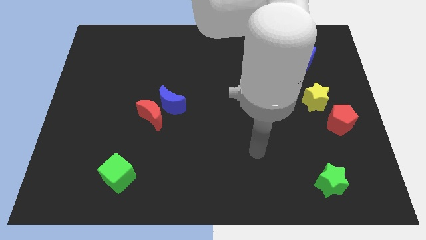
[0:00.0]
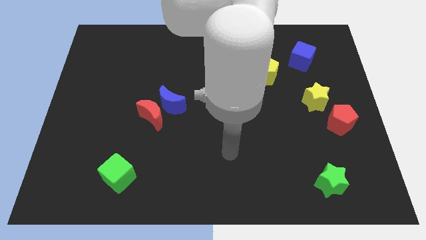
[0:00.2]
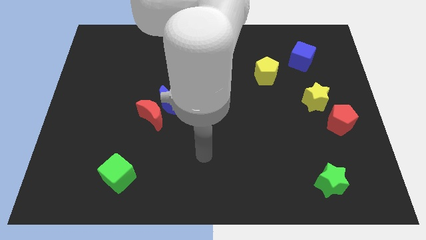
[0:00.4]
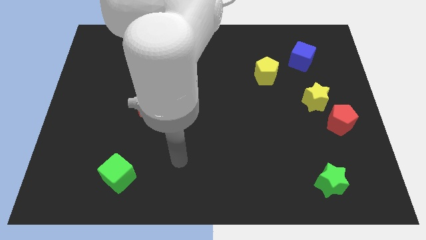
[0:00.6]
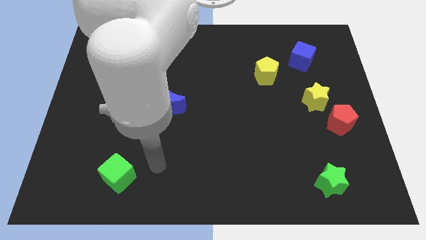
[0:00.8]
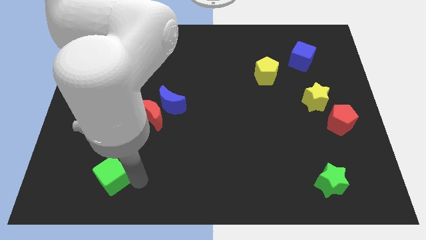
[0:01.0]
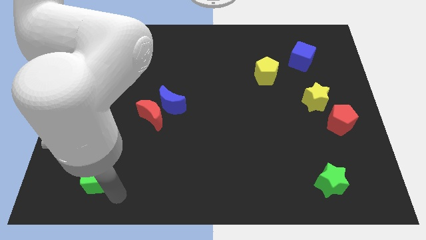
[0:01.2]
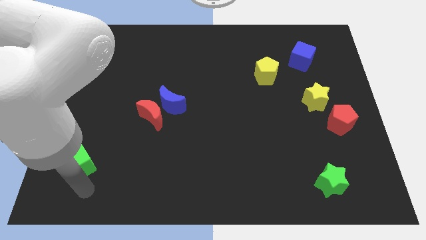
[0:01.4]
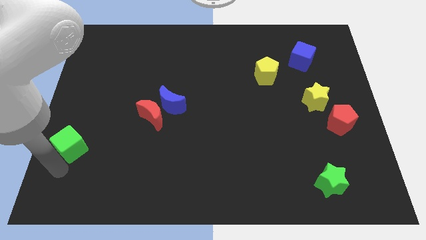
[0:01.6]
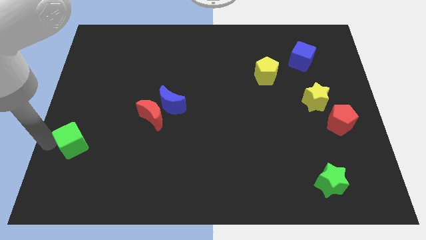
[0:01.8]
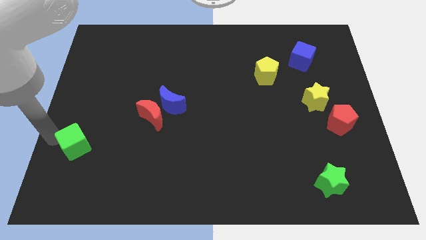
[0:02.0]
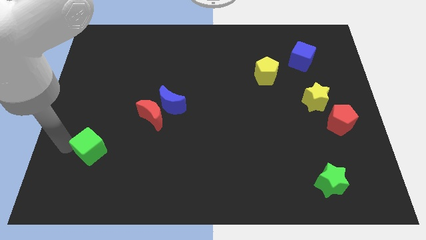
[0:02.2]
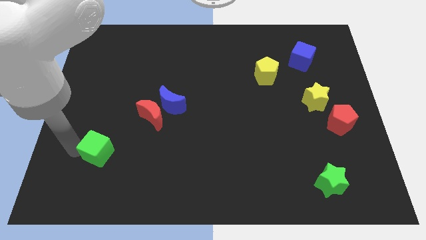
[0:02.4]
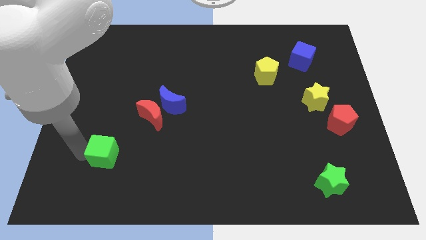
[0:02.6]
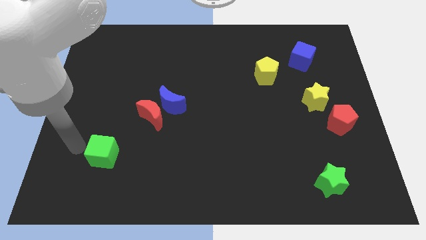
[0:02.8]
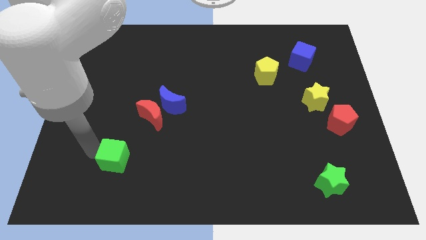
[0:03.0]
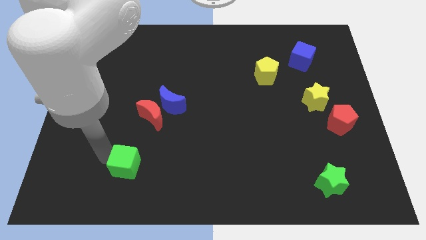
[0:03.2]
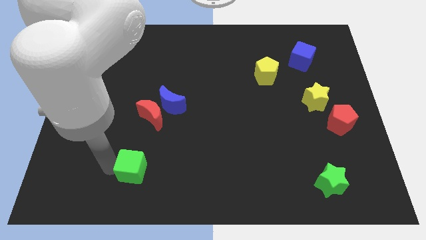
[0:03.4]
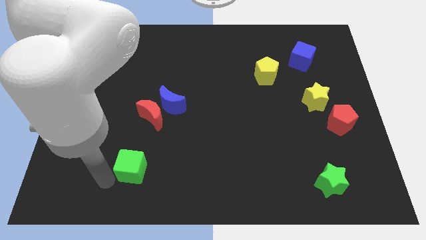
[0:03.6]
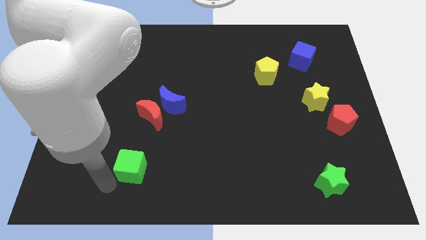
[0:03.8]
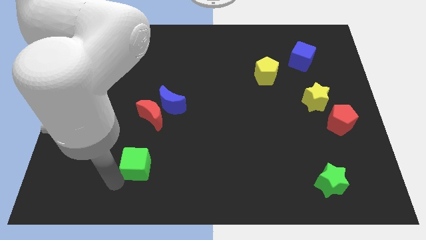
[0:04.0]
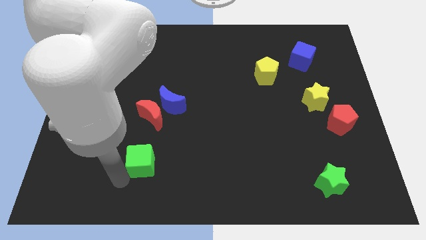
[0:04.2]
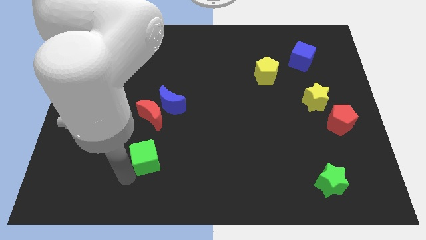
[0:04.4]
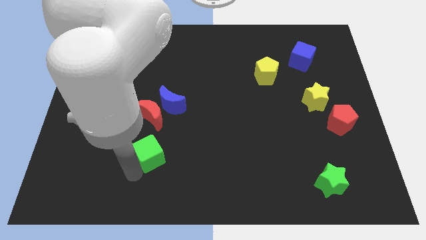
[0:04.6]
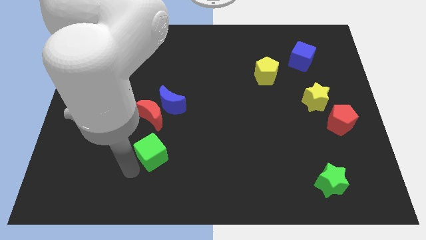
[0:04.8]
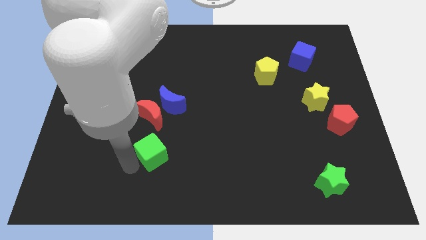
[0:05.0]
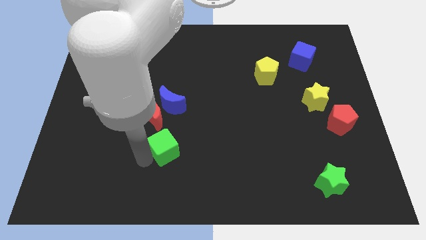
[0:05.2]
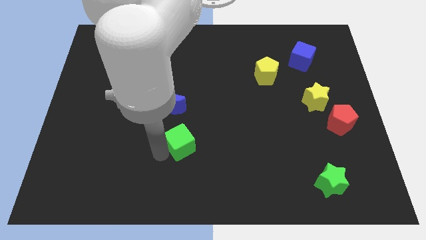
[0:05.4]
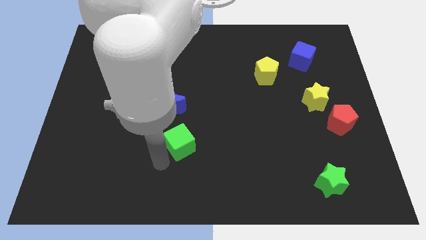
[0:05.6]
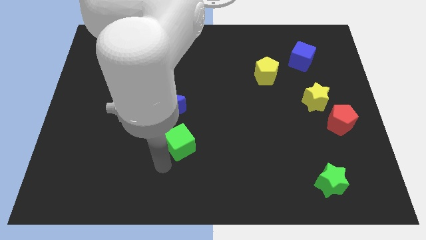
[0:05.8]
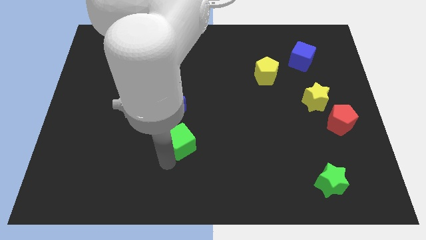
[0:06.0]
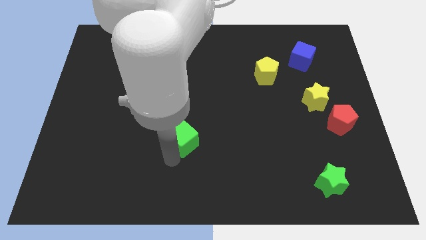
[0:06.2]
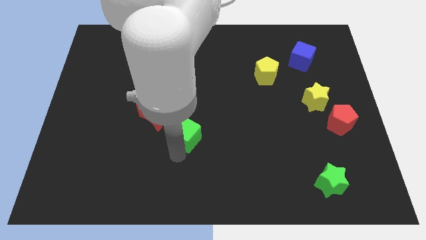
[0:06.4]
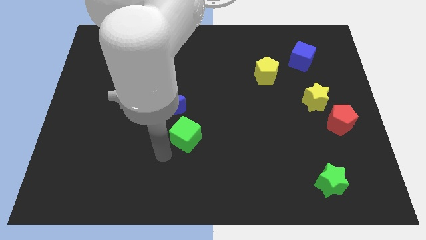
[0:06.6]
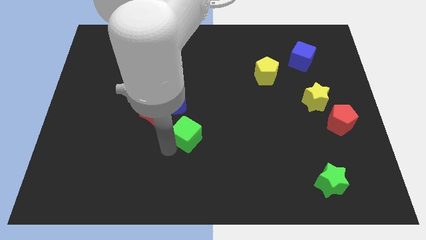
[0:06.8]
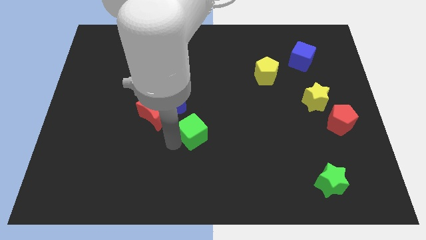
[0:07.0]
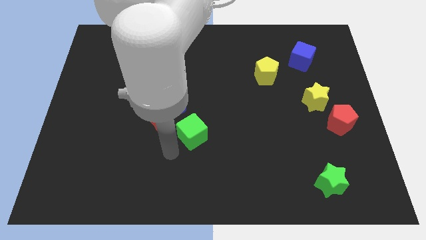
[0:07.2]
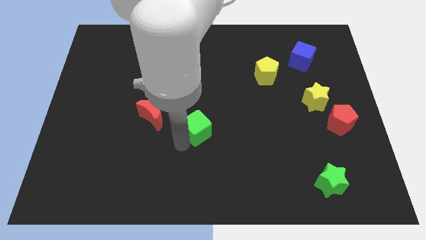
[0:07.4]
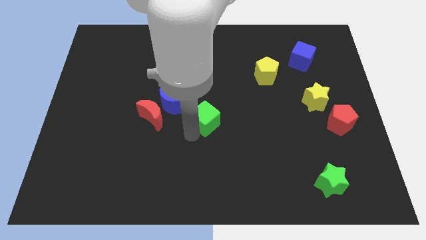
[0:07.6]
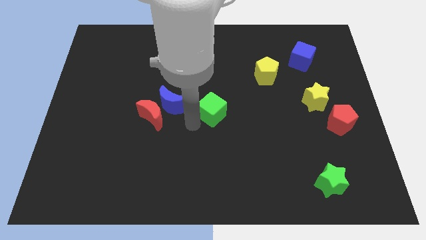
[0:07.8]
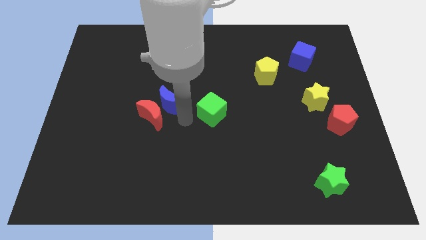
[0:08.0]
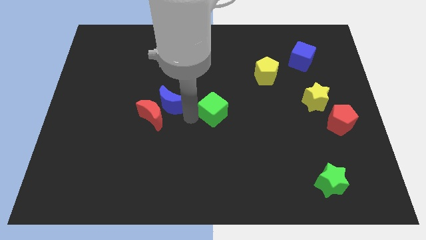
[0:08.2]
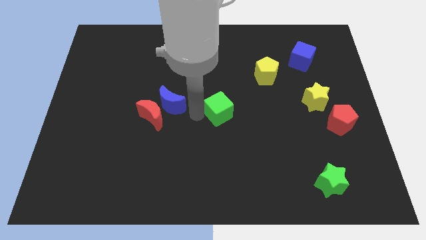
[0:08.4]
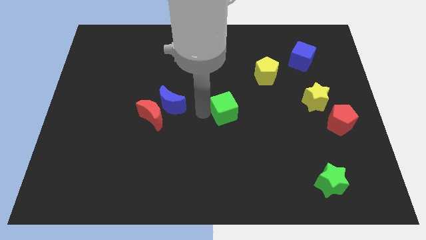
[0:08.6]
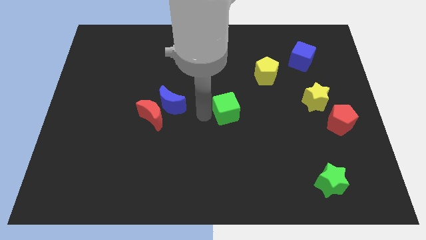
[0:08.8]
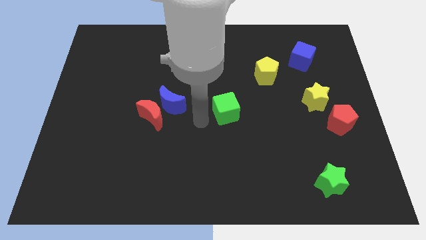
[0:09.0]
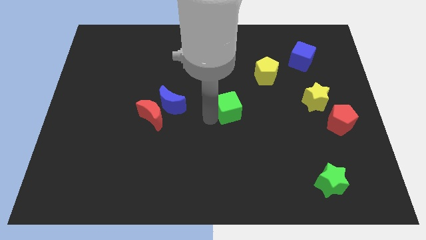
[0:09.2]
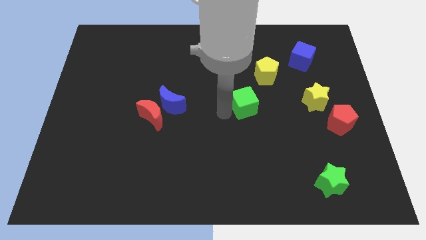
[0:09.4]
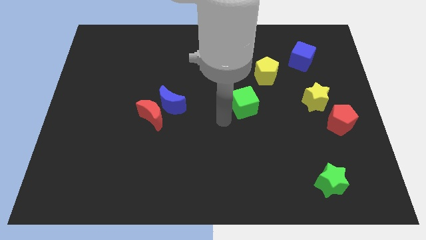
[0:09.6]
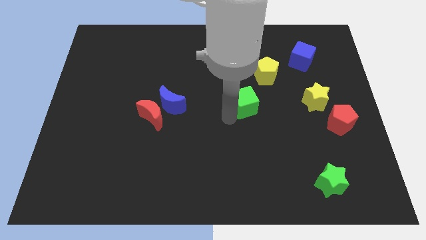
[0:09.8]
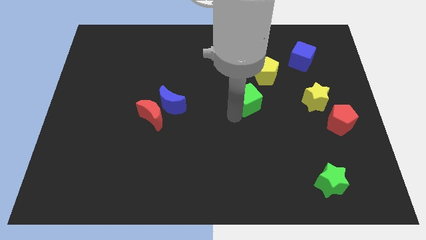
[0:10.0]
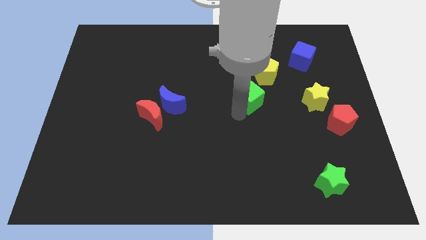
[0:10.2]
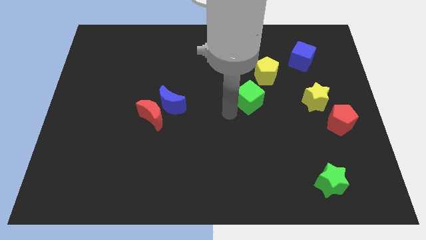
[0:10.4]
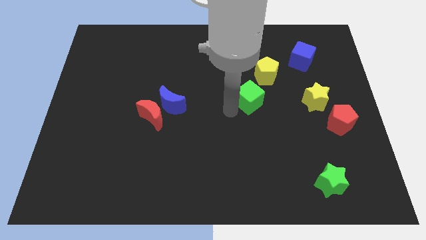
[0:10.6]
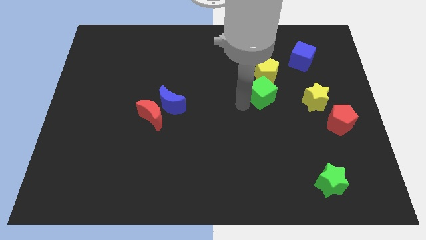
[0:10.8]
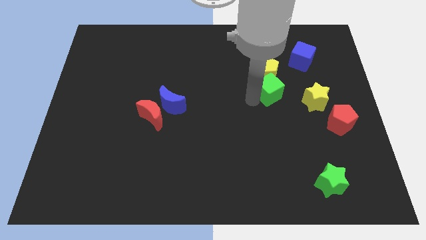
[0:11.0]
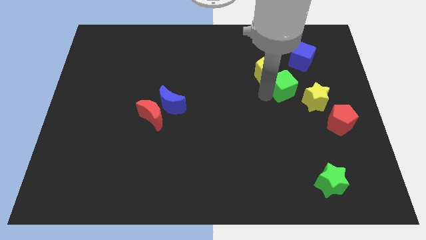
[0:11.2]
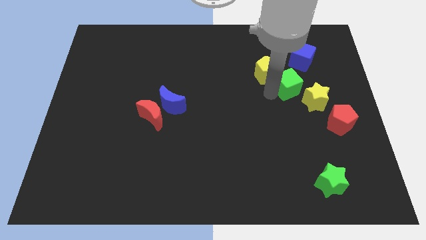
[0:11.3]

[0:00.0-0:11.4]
slide the green cube to the right of the yellow pentagon
